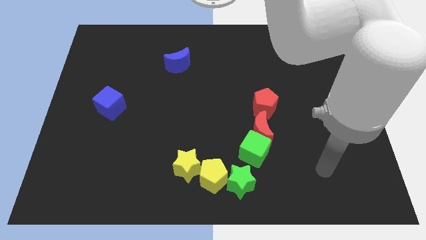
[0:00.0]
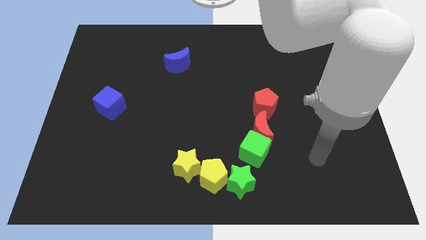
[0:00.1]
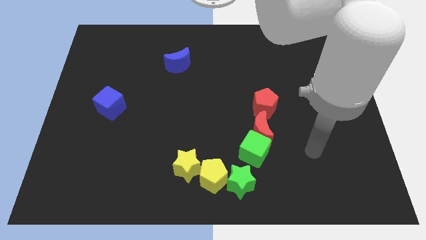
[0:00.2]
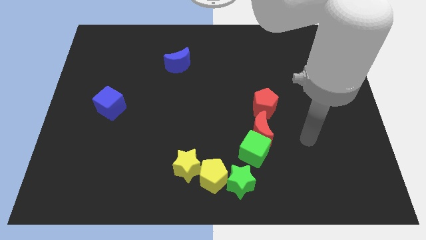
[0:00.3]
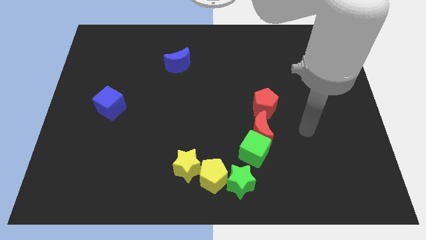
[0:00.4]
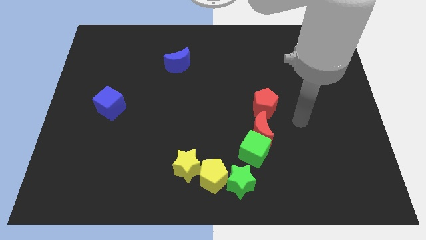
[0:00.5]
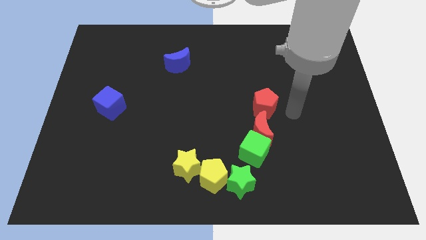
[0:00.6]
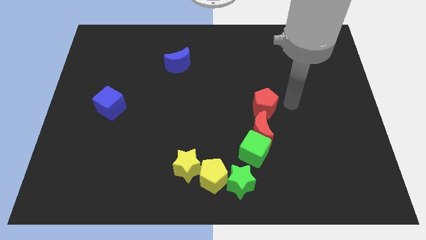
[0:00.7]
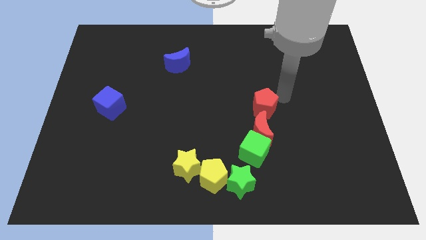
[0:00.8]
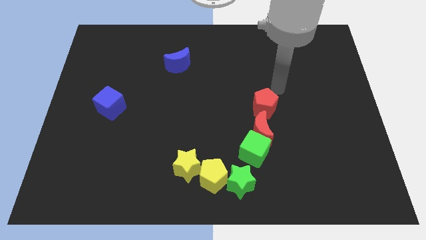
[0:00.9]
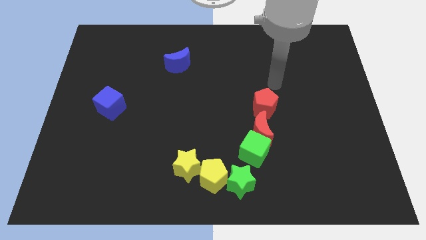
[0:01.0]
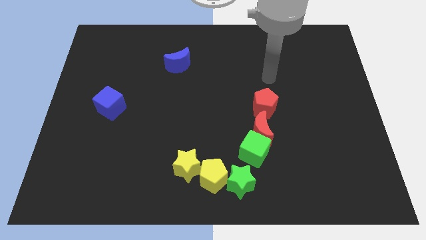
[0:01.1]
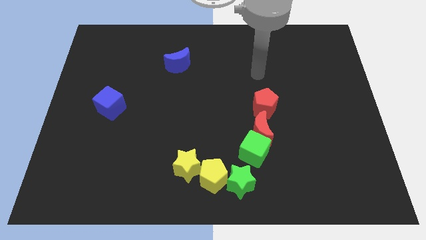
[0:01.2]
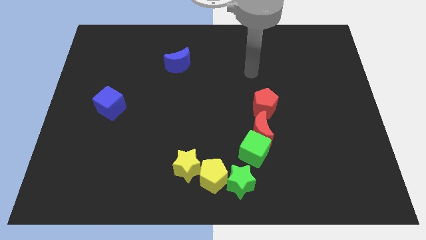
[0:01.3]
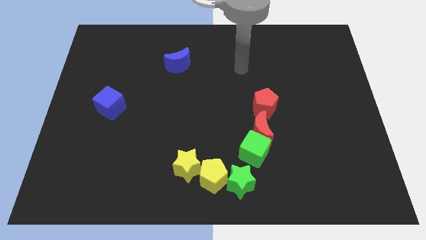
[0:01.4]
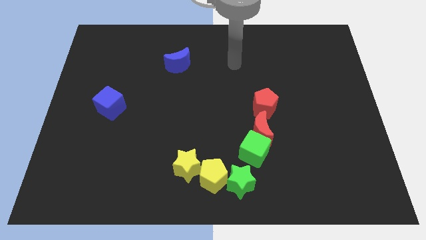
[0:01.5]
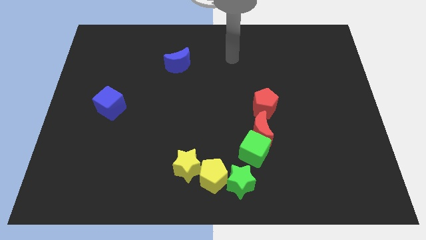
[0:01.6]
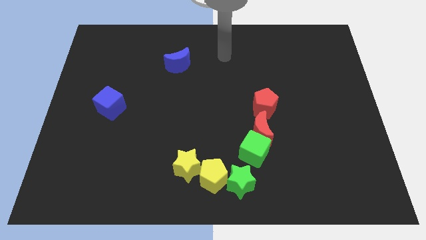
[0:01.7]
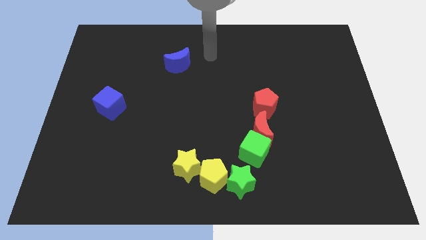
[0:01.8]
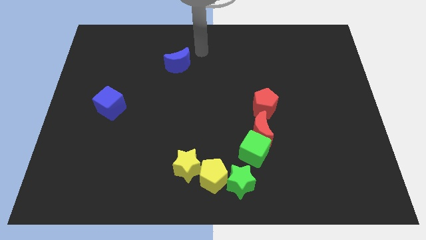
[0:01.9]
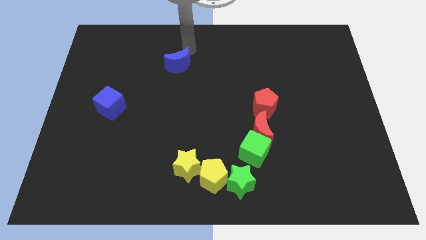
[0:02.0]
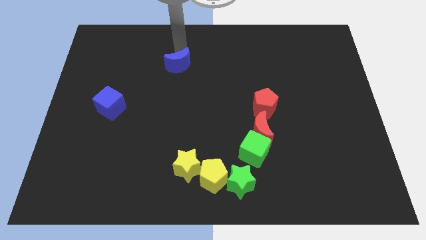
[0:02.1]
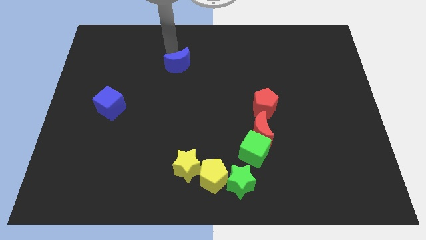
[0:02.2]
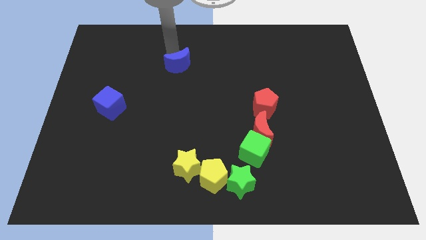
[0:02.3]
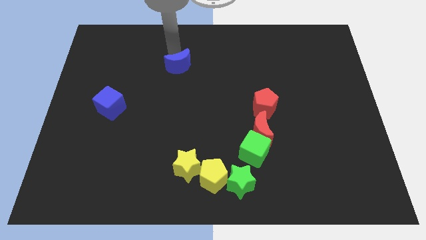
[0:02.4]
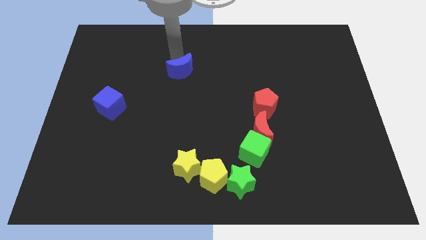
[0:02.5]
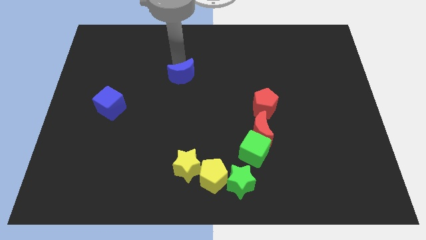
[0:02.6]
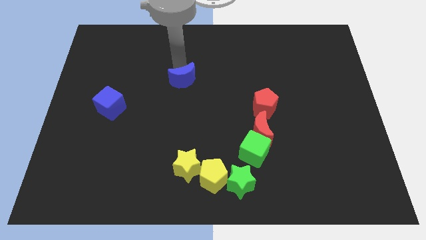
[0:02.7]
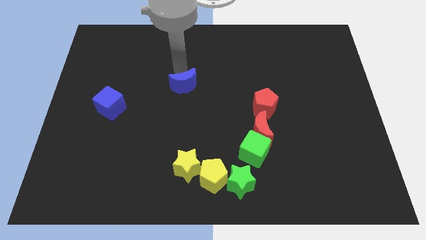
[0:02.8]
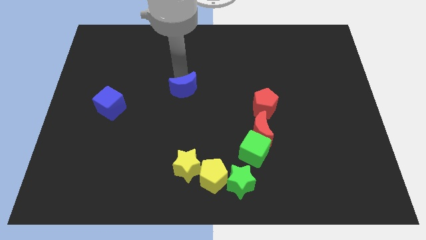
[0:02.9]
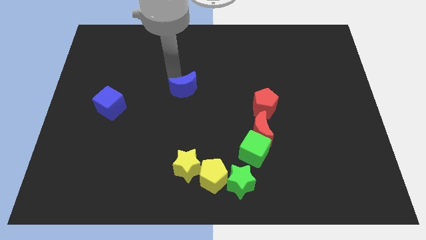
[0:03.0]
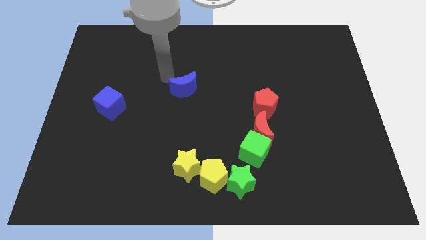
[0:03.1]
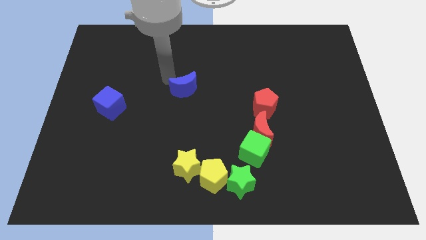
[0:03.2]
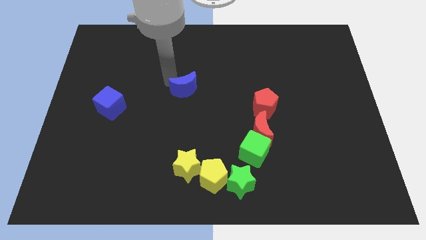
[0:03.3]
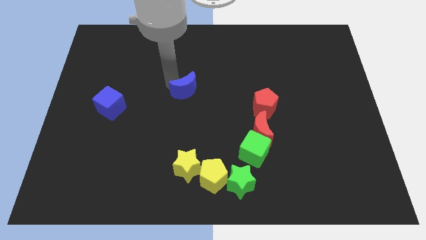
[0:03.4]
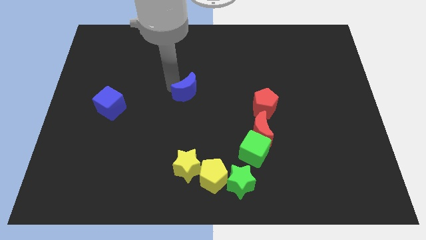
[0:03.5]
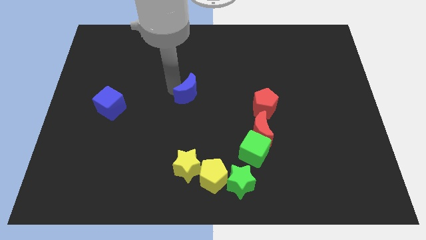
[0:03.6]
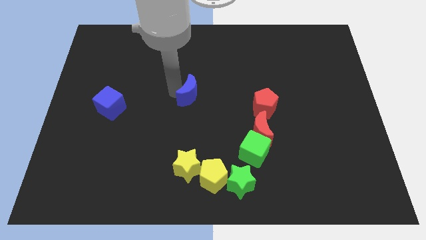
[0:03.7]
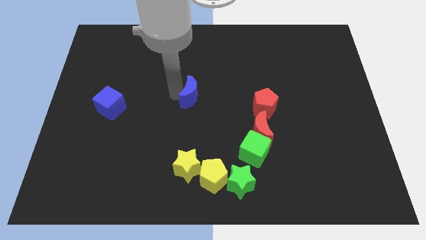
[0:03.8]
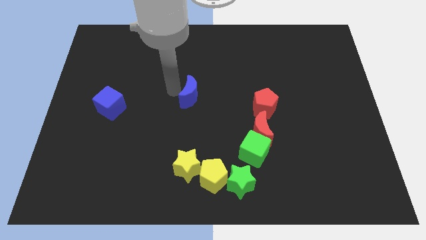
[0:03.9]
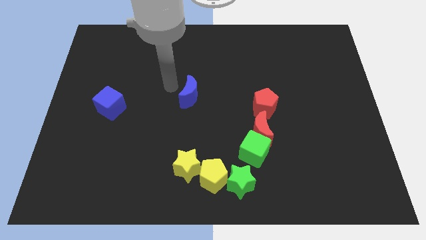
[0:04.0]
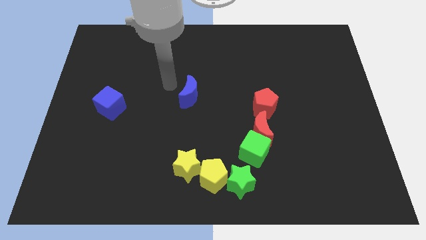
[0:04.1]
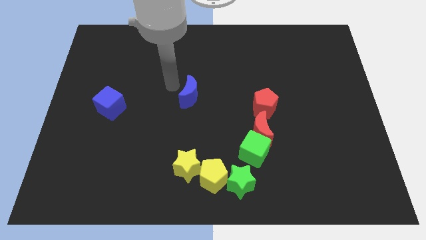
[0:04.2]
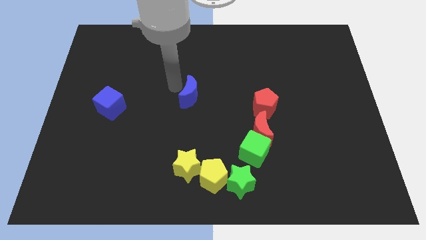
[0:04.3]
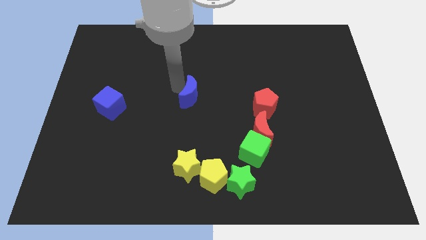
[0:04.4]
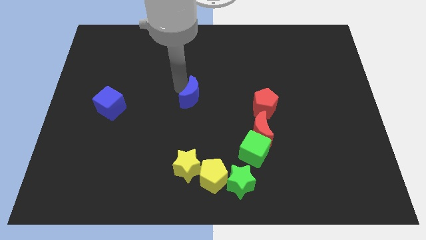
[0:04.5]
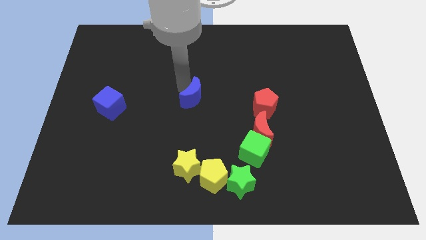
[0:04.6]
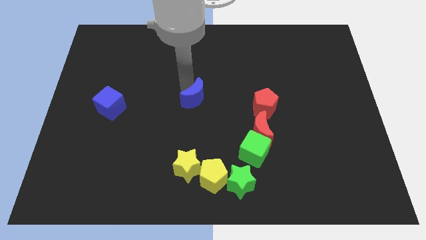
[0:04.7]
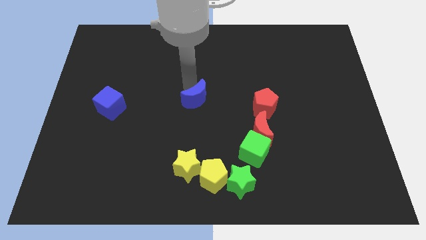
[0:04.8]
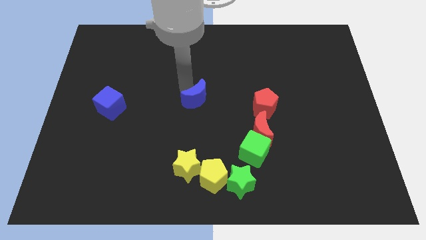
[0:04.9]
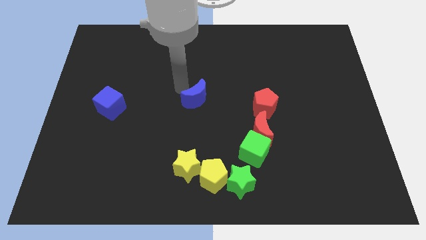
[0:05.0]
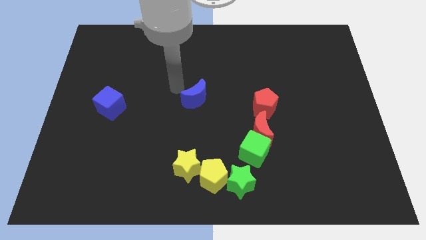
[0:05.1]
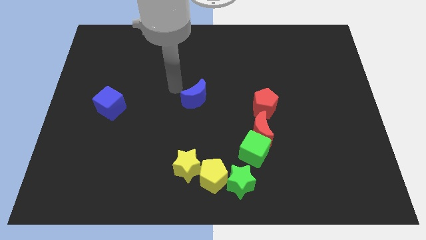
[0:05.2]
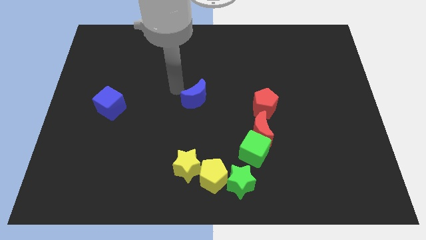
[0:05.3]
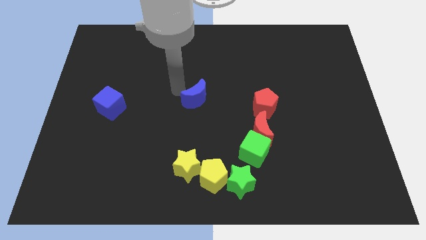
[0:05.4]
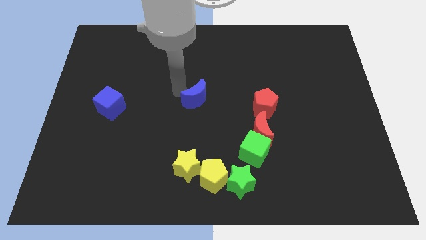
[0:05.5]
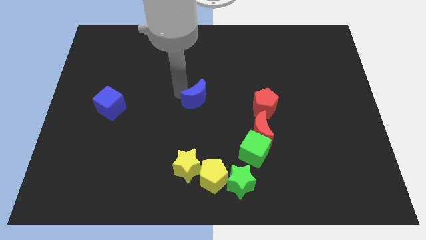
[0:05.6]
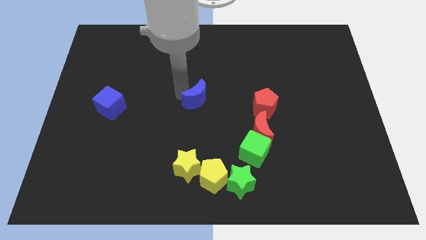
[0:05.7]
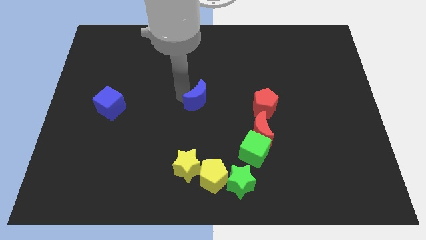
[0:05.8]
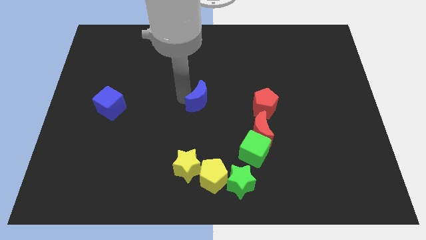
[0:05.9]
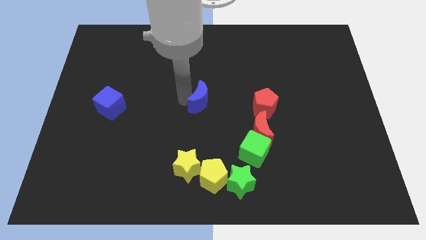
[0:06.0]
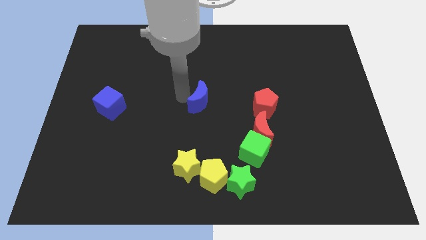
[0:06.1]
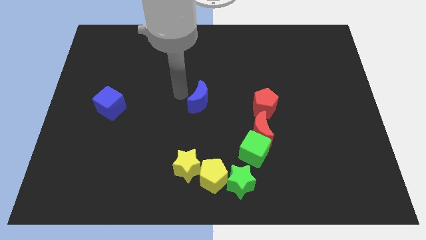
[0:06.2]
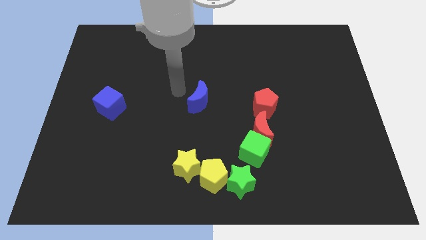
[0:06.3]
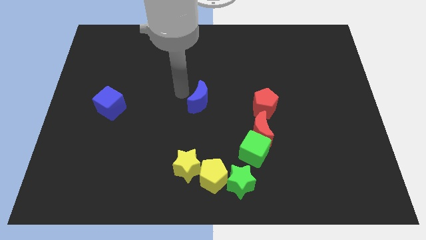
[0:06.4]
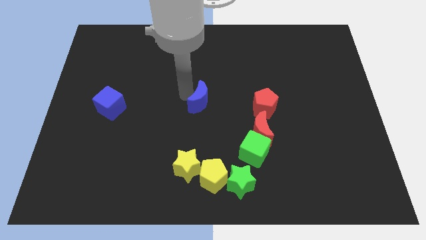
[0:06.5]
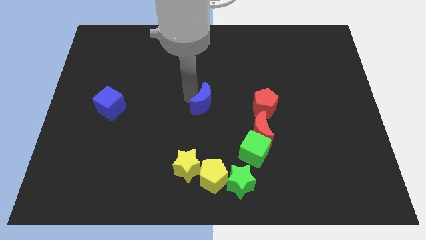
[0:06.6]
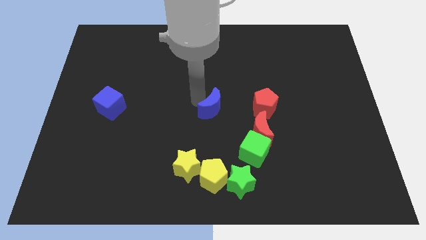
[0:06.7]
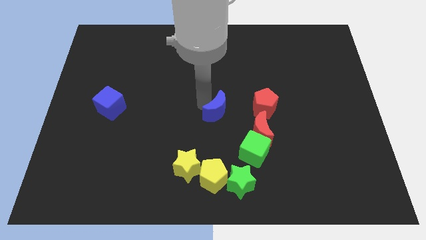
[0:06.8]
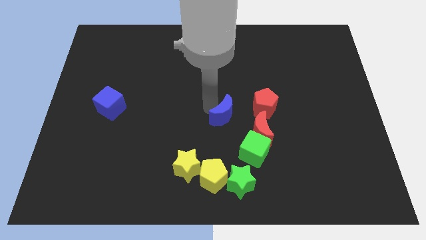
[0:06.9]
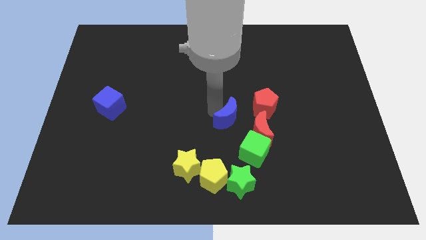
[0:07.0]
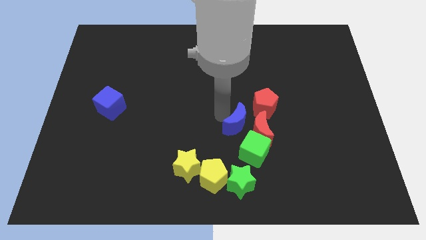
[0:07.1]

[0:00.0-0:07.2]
slide the blue moon close to the red moon
